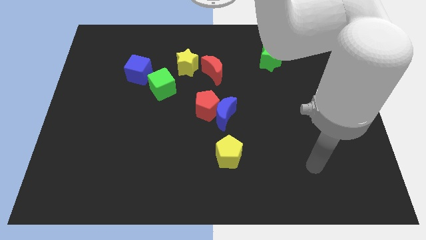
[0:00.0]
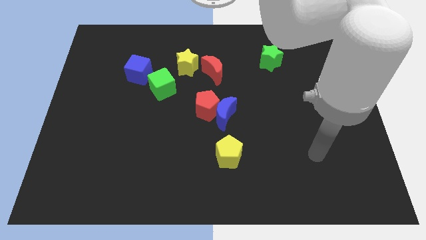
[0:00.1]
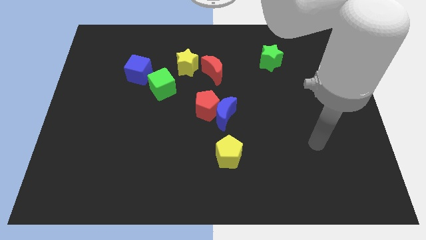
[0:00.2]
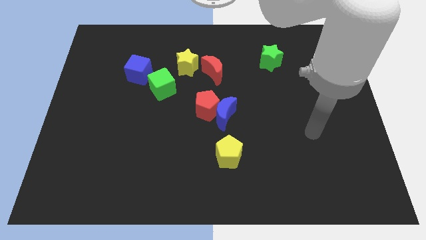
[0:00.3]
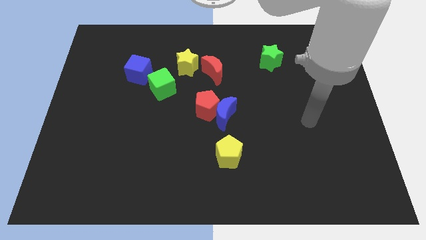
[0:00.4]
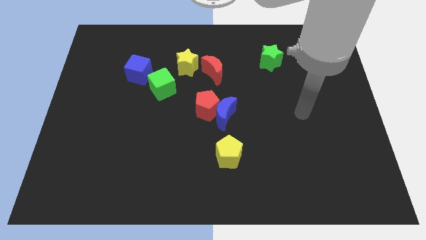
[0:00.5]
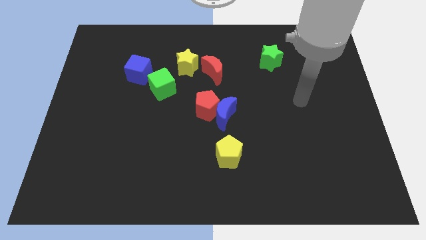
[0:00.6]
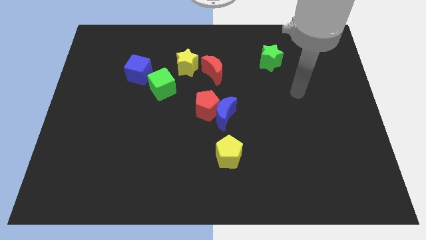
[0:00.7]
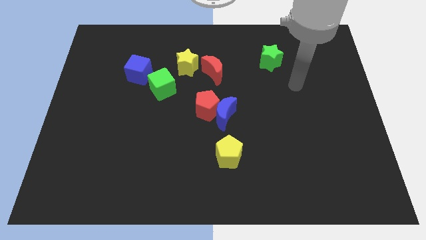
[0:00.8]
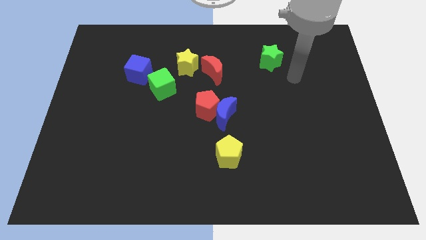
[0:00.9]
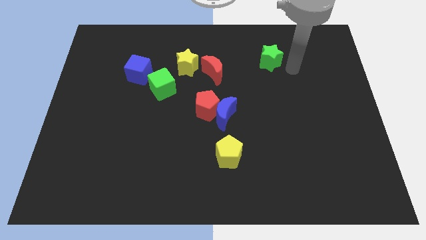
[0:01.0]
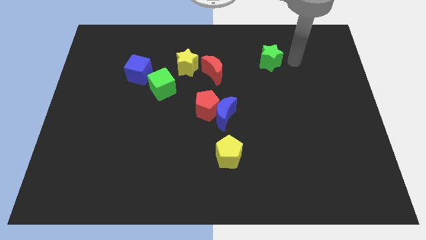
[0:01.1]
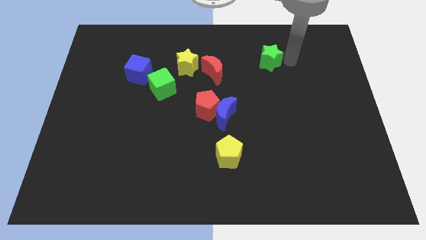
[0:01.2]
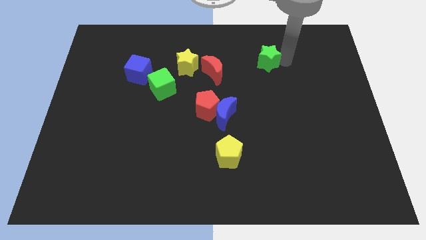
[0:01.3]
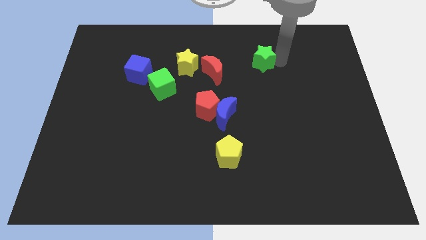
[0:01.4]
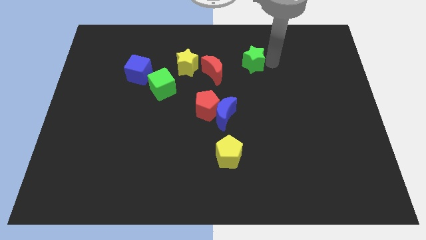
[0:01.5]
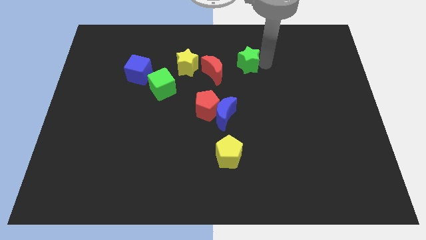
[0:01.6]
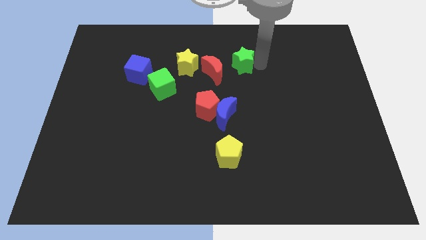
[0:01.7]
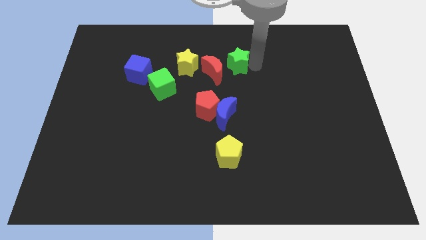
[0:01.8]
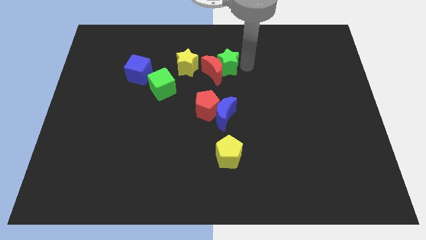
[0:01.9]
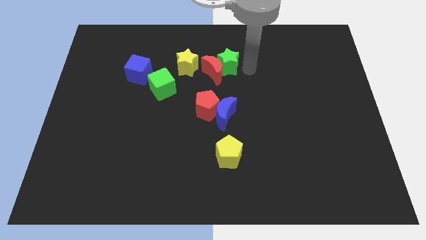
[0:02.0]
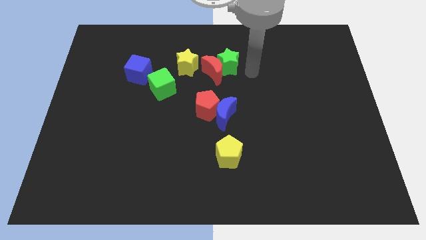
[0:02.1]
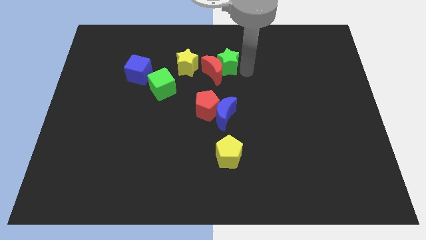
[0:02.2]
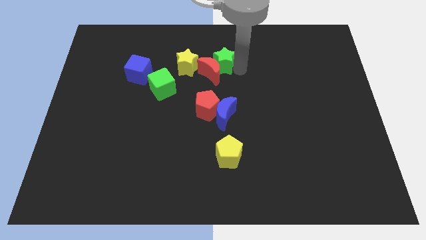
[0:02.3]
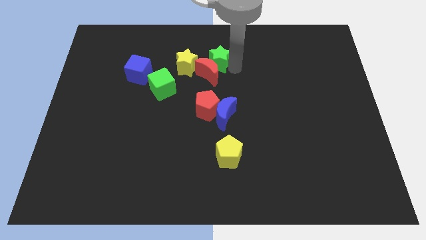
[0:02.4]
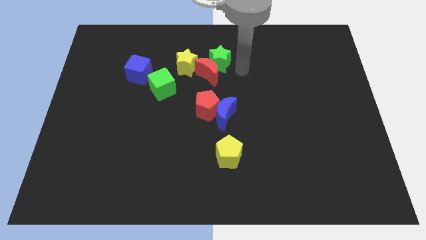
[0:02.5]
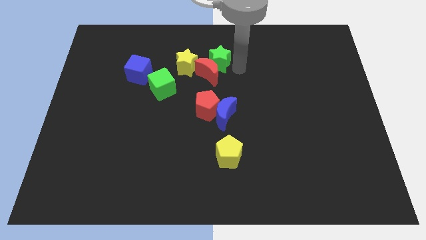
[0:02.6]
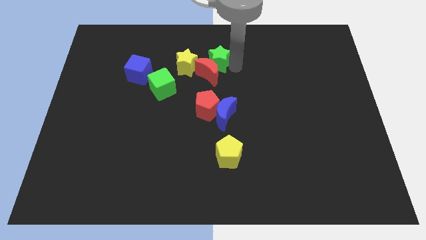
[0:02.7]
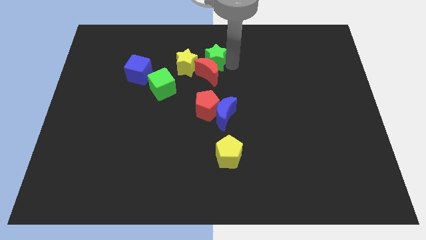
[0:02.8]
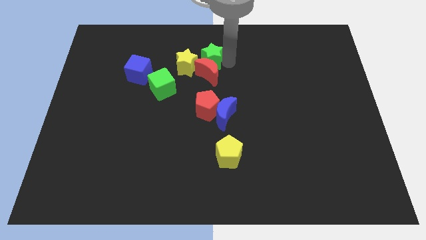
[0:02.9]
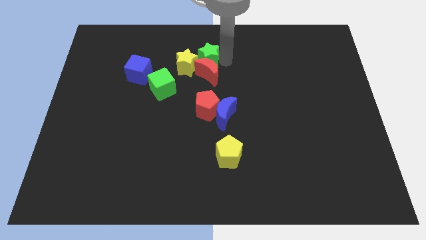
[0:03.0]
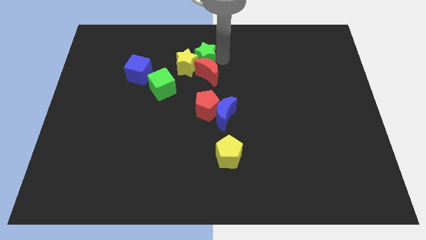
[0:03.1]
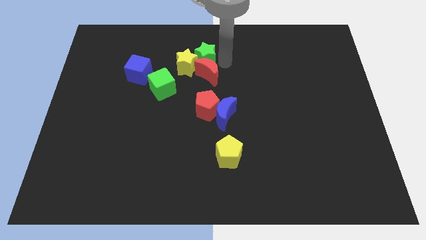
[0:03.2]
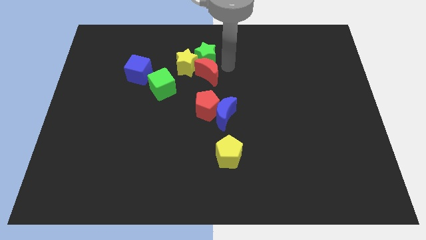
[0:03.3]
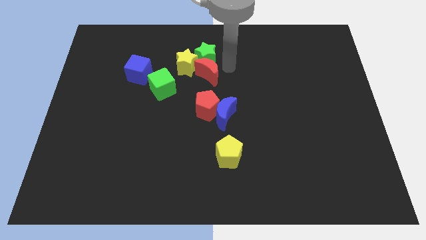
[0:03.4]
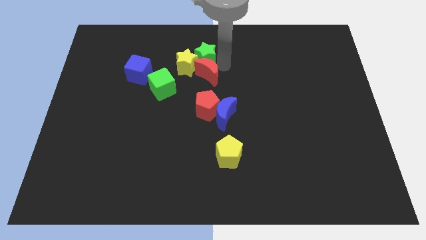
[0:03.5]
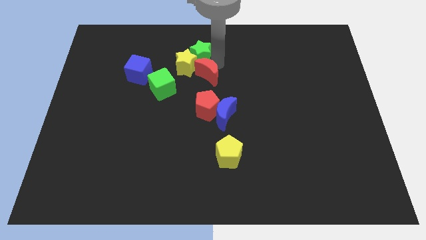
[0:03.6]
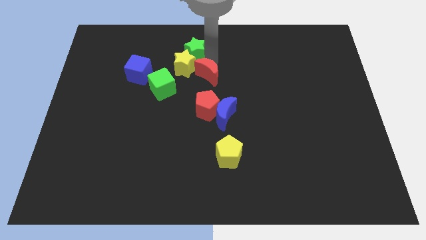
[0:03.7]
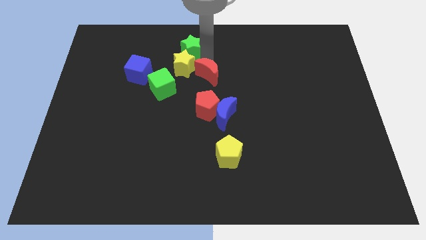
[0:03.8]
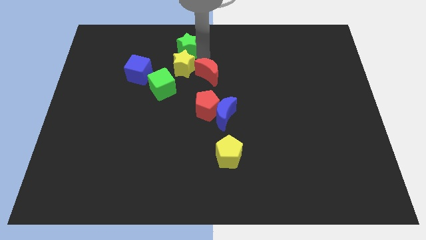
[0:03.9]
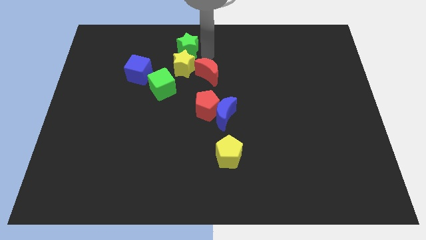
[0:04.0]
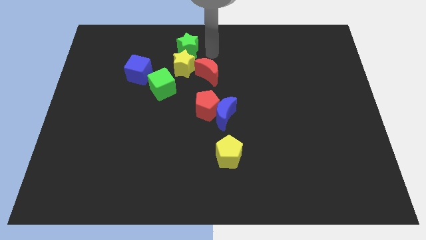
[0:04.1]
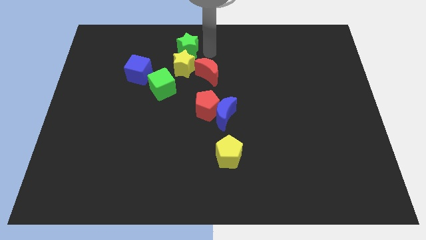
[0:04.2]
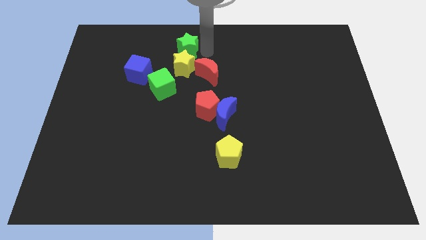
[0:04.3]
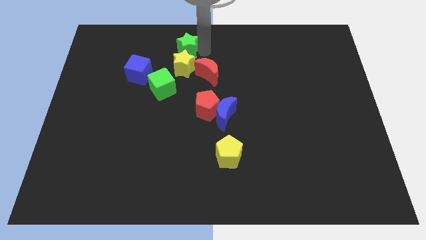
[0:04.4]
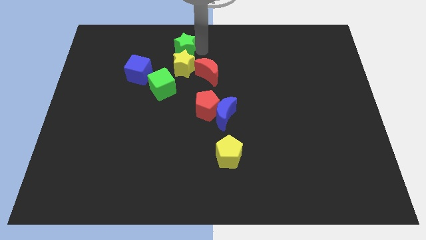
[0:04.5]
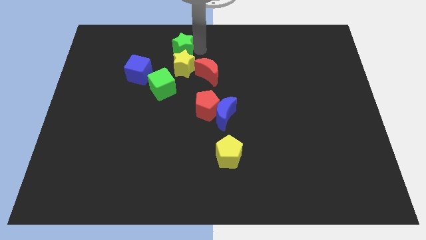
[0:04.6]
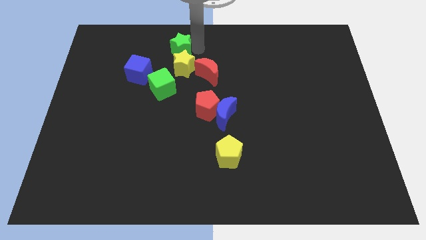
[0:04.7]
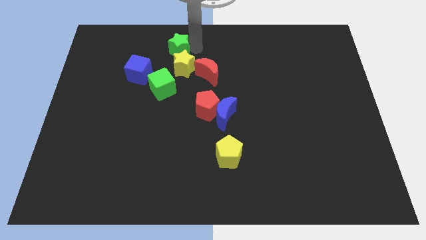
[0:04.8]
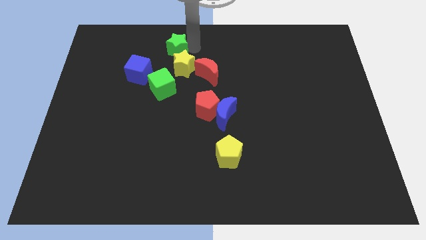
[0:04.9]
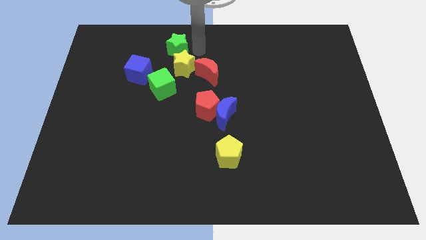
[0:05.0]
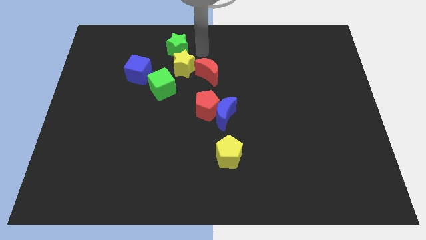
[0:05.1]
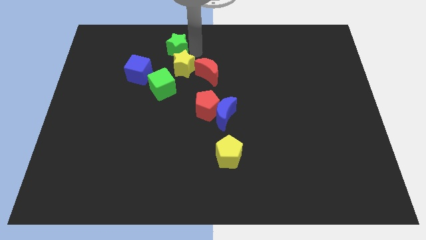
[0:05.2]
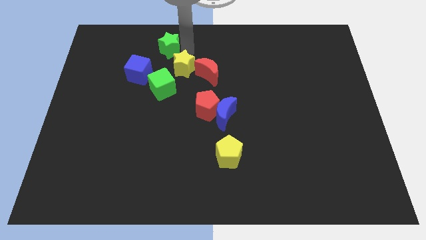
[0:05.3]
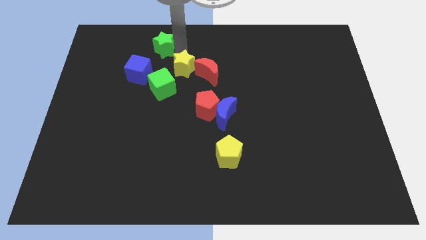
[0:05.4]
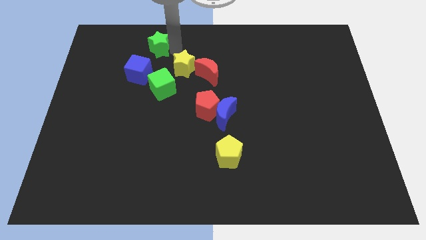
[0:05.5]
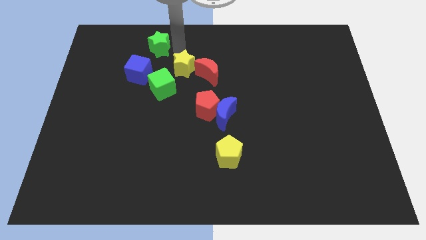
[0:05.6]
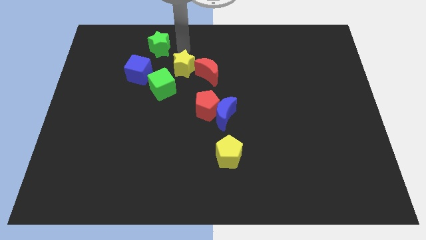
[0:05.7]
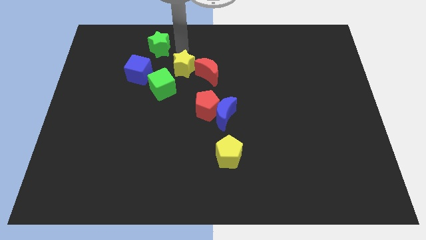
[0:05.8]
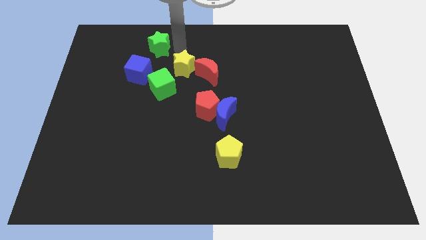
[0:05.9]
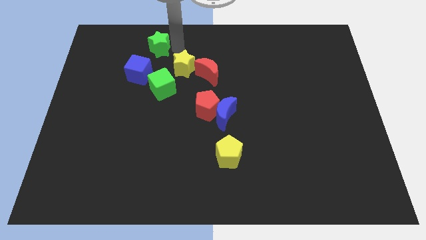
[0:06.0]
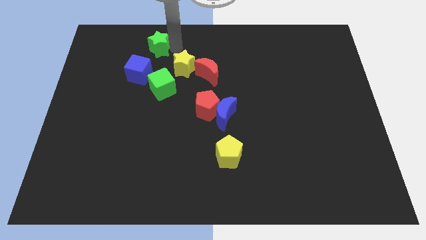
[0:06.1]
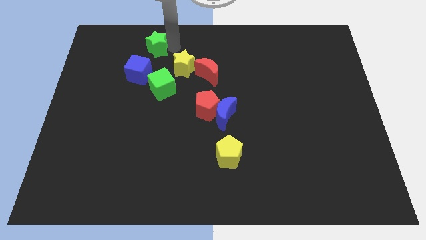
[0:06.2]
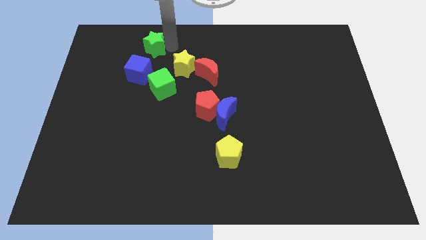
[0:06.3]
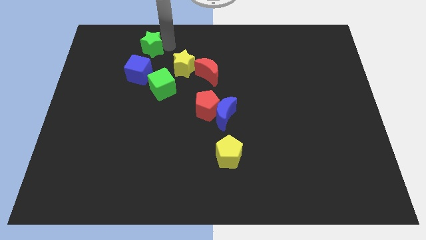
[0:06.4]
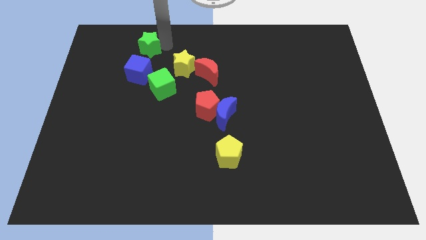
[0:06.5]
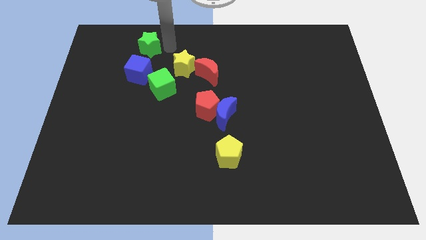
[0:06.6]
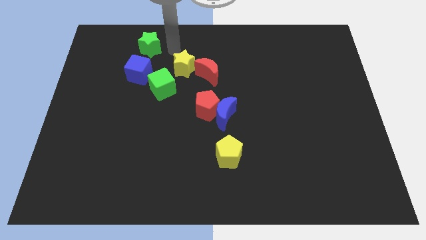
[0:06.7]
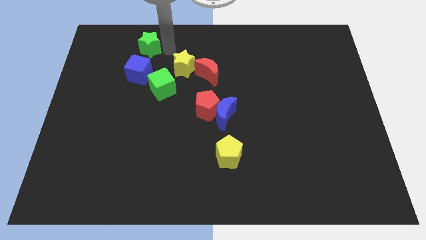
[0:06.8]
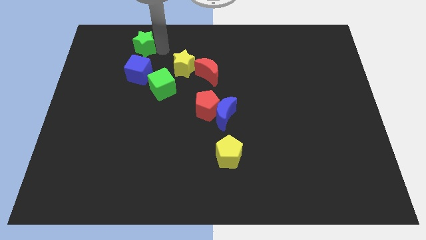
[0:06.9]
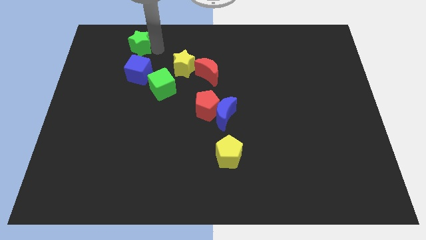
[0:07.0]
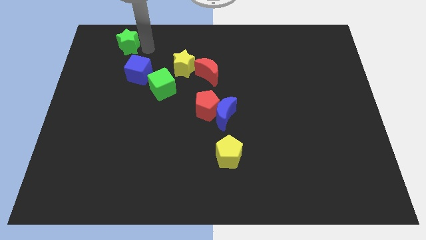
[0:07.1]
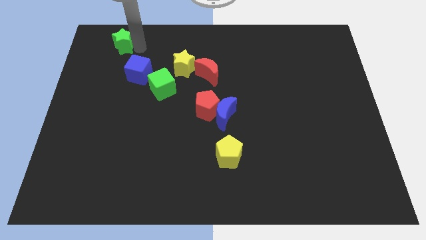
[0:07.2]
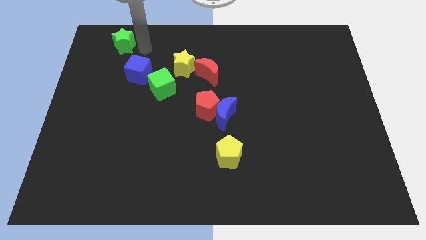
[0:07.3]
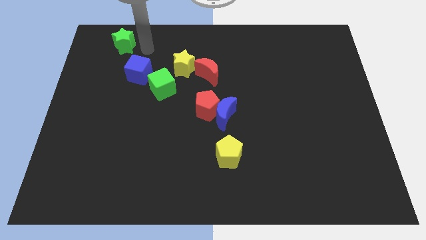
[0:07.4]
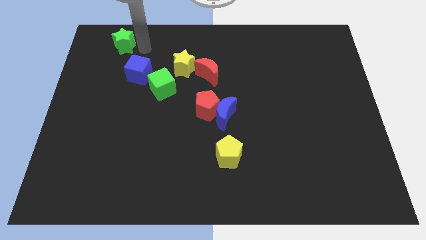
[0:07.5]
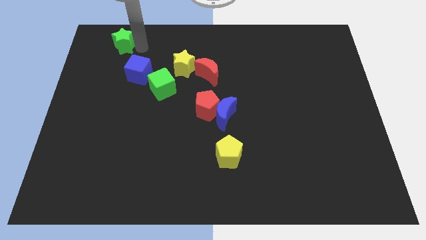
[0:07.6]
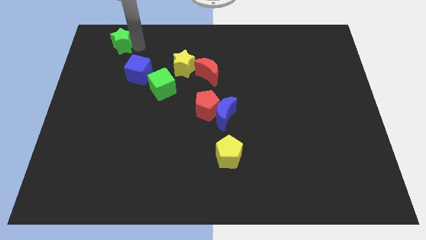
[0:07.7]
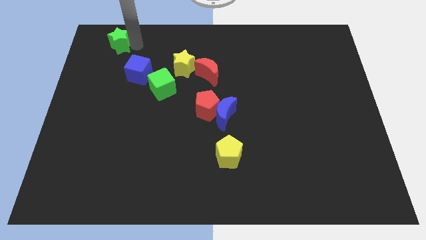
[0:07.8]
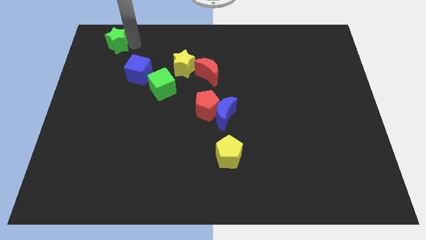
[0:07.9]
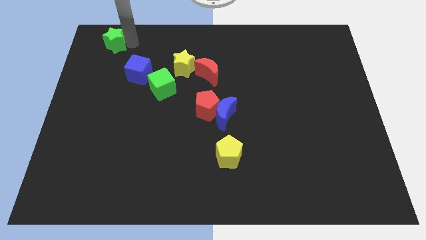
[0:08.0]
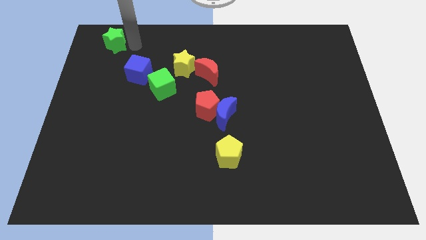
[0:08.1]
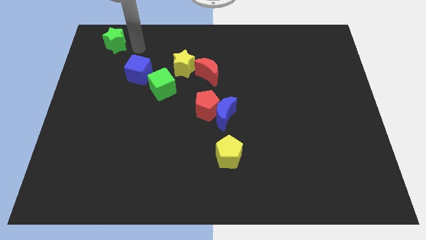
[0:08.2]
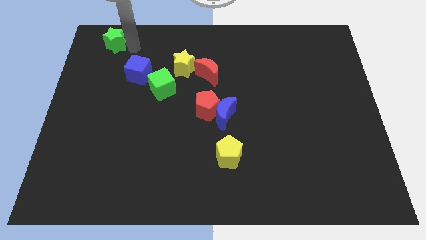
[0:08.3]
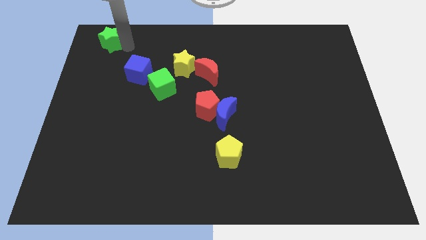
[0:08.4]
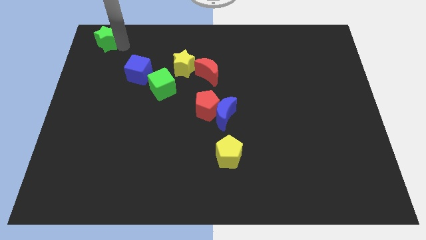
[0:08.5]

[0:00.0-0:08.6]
move the green star to the upper left corner
